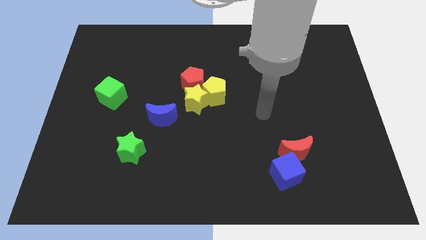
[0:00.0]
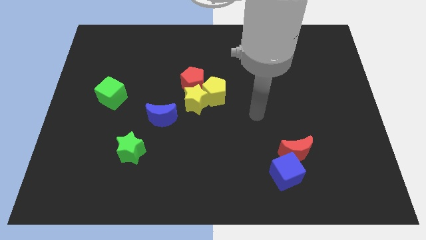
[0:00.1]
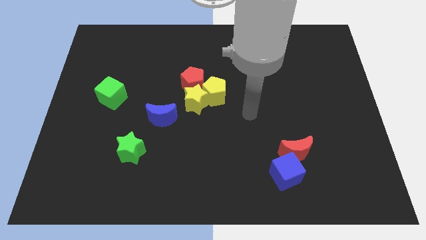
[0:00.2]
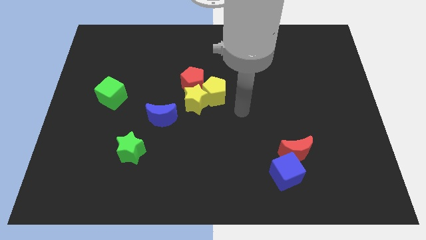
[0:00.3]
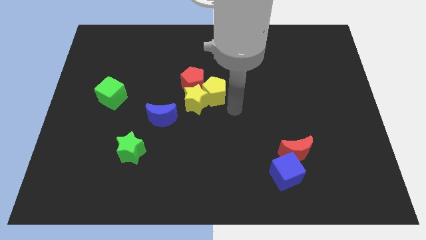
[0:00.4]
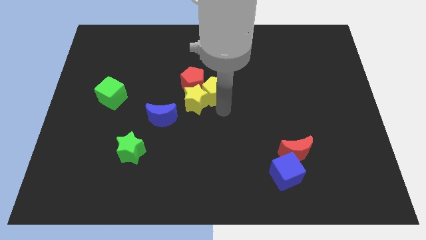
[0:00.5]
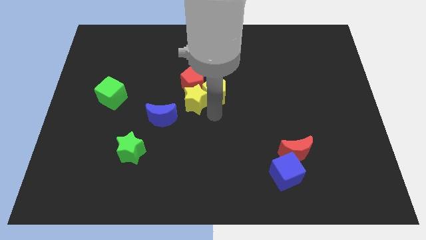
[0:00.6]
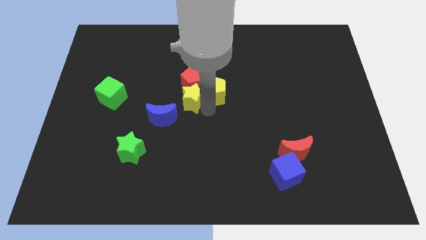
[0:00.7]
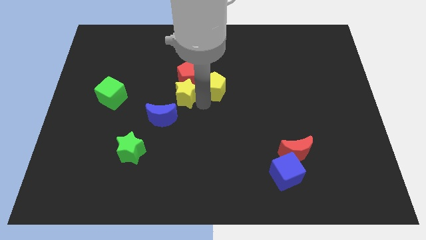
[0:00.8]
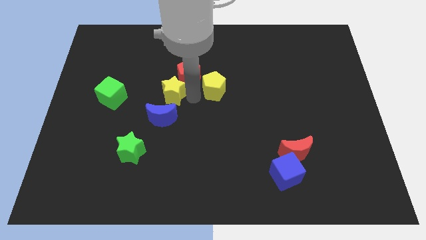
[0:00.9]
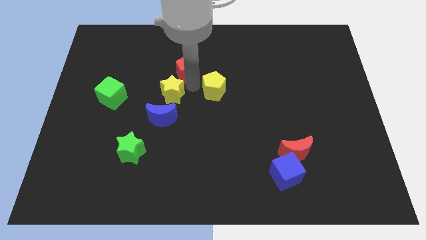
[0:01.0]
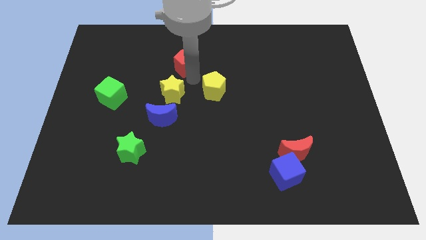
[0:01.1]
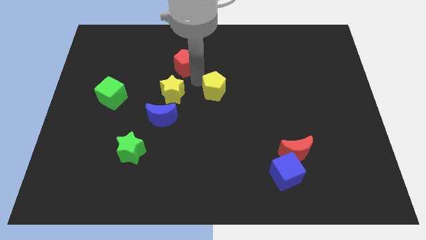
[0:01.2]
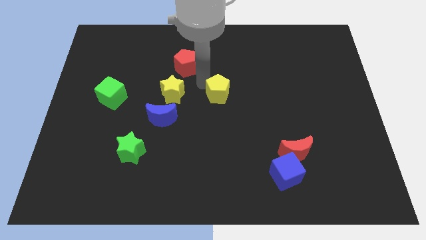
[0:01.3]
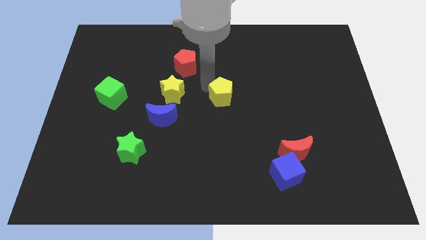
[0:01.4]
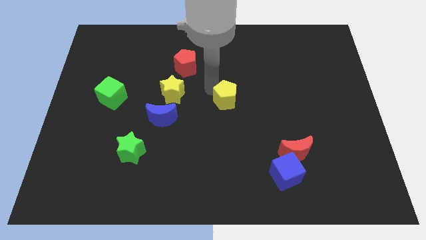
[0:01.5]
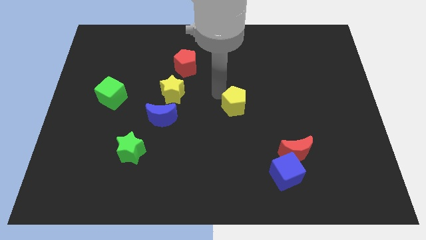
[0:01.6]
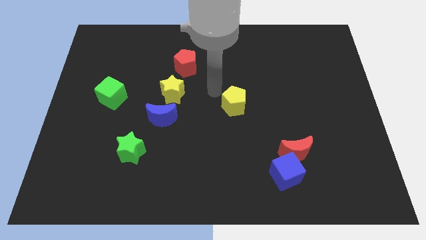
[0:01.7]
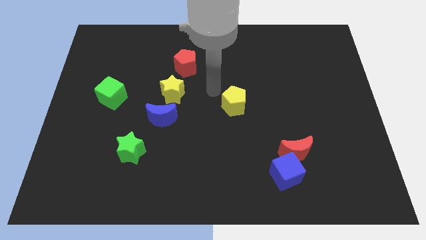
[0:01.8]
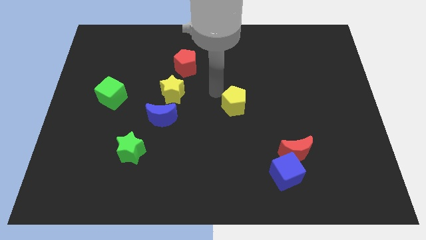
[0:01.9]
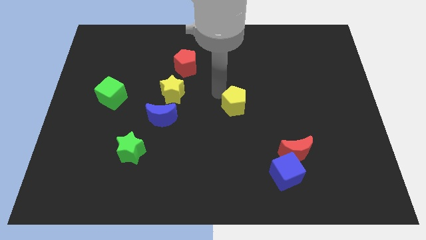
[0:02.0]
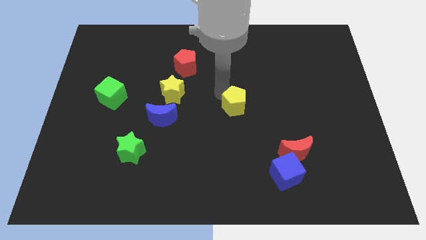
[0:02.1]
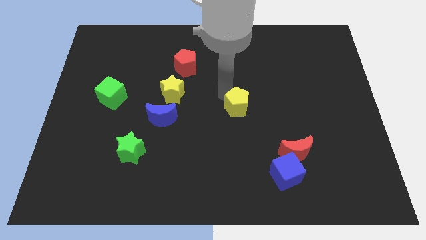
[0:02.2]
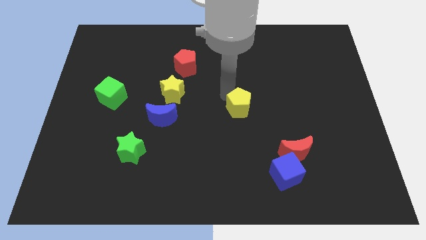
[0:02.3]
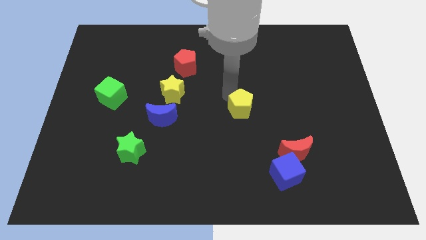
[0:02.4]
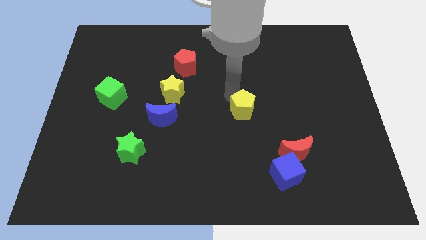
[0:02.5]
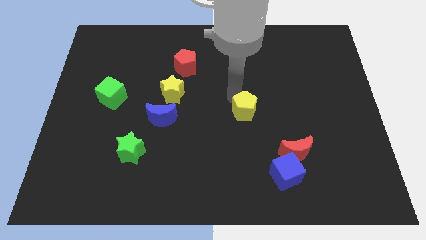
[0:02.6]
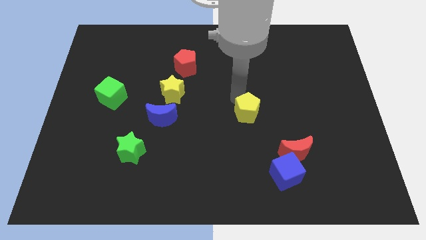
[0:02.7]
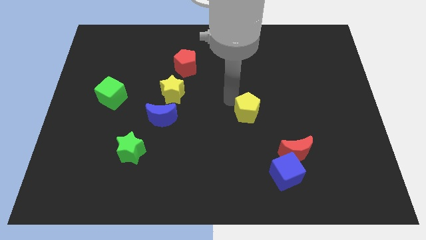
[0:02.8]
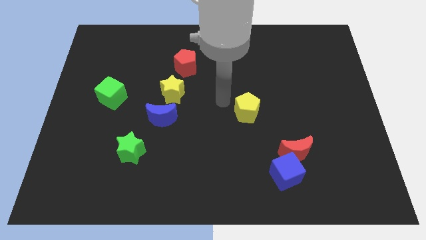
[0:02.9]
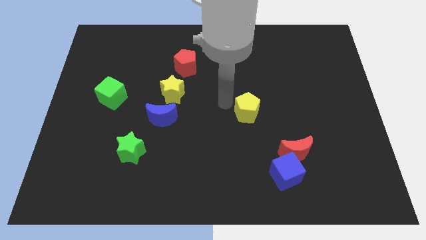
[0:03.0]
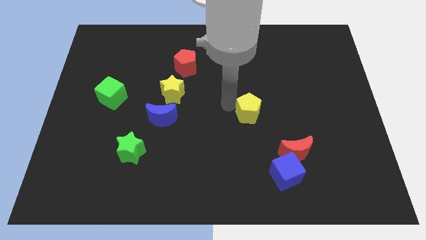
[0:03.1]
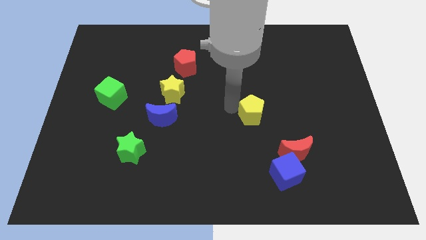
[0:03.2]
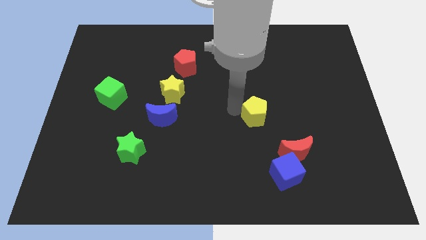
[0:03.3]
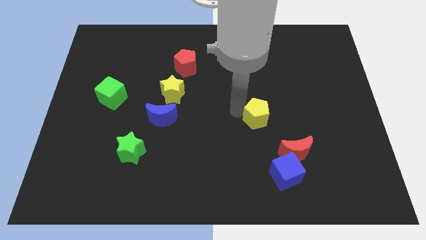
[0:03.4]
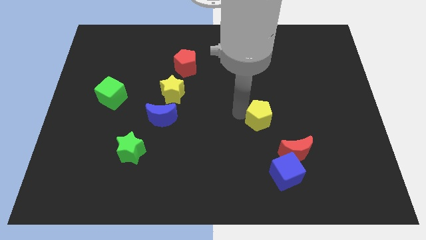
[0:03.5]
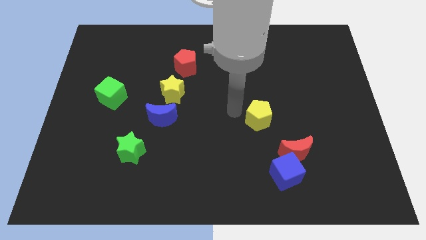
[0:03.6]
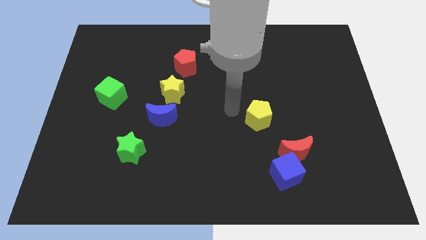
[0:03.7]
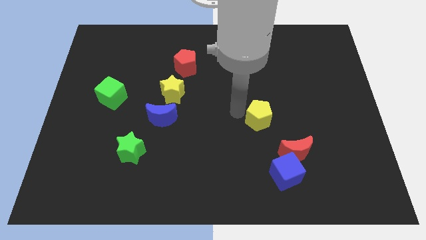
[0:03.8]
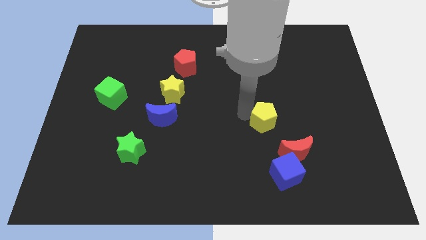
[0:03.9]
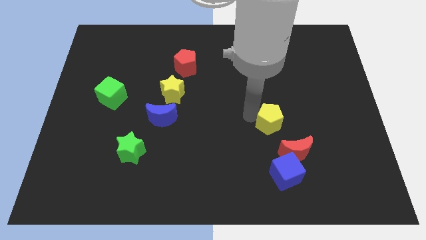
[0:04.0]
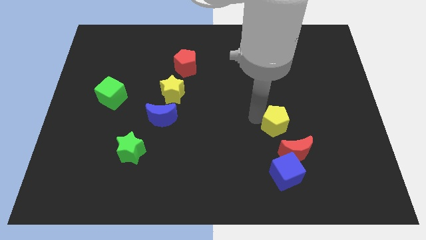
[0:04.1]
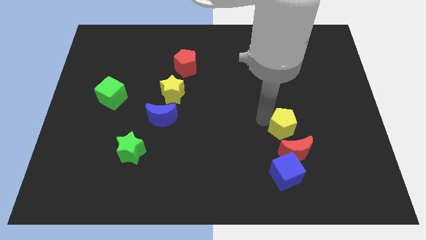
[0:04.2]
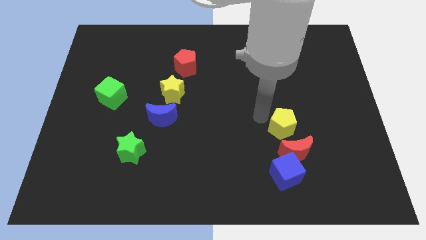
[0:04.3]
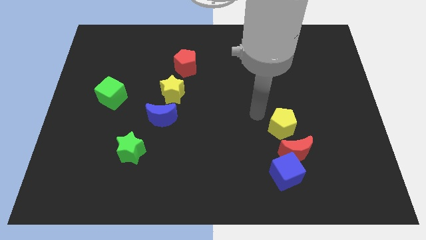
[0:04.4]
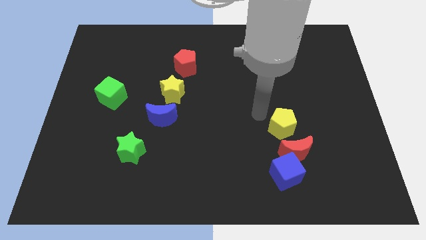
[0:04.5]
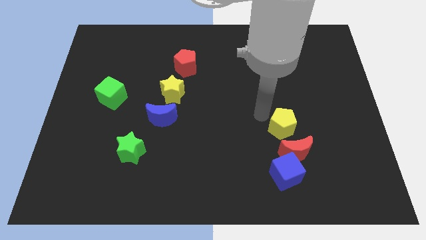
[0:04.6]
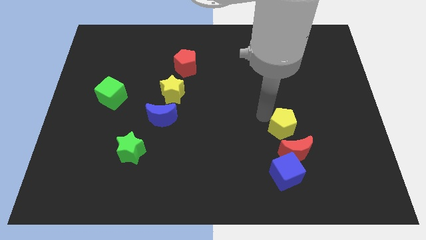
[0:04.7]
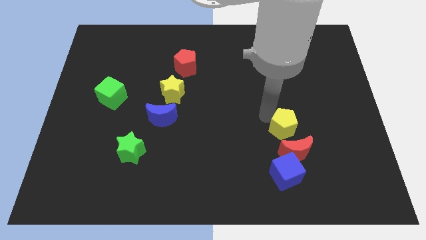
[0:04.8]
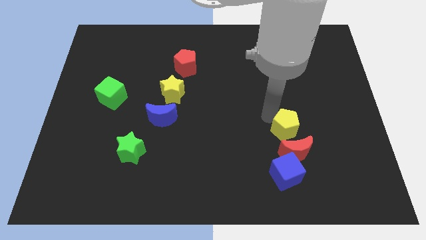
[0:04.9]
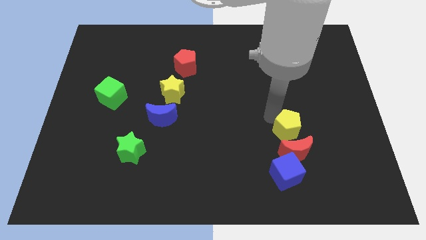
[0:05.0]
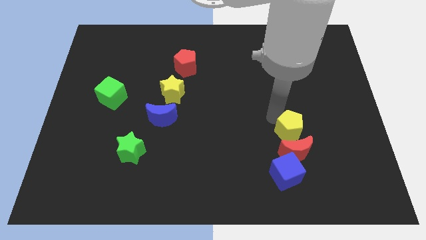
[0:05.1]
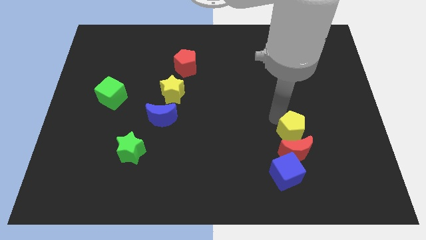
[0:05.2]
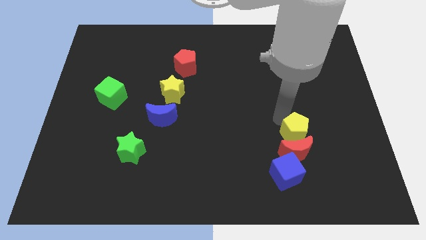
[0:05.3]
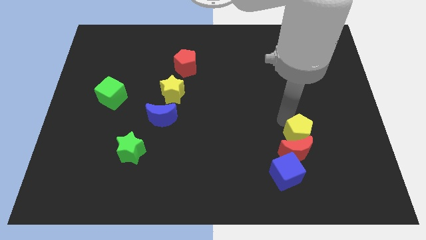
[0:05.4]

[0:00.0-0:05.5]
push the yellow pentagon down and right diagonally

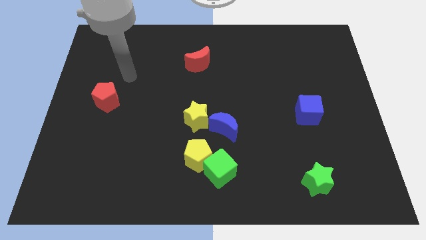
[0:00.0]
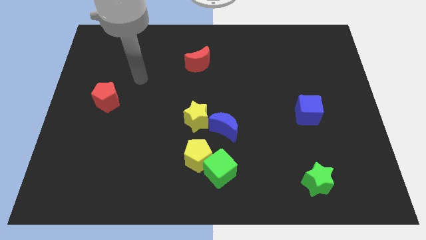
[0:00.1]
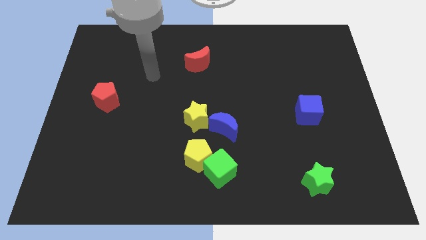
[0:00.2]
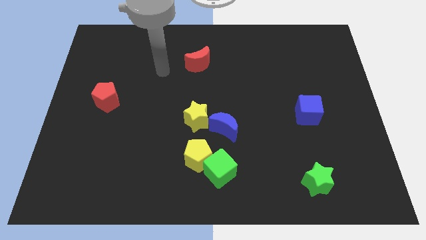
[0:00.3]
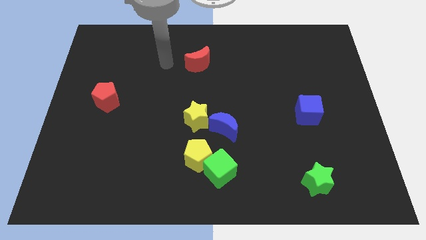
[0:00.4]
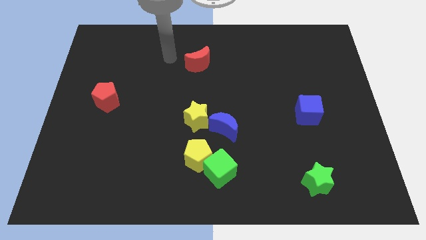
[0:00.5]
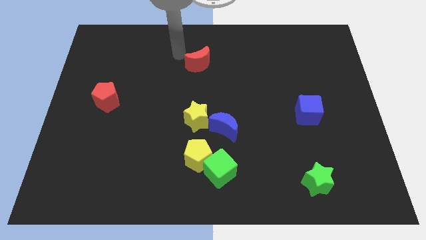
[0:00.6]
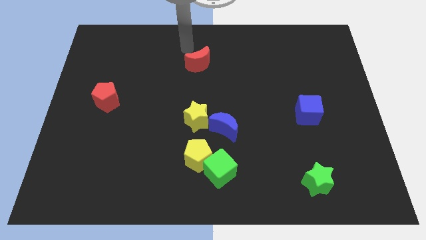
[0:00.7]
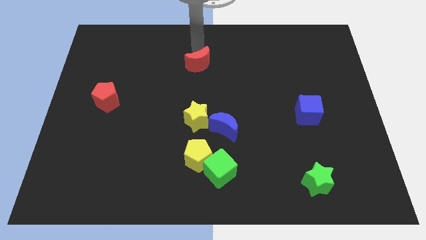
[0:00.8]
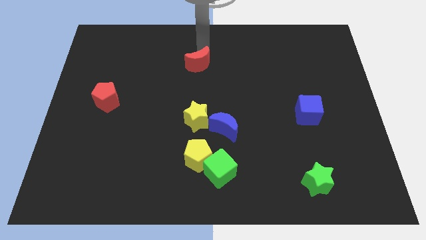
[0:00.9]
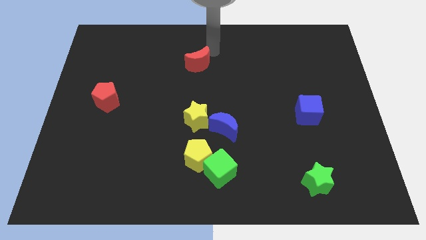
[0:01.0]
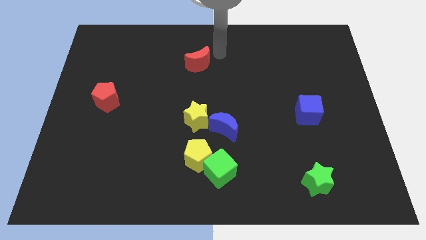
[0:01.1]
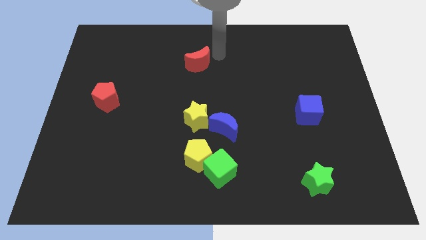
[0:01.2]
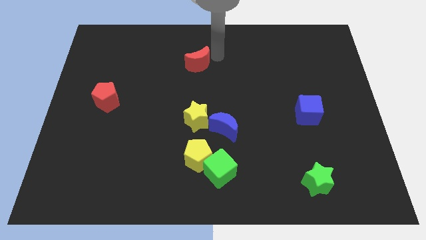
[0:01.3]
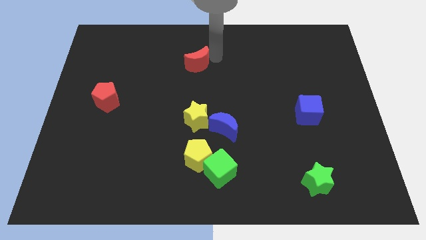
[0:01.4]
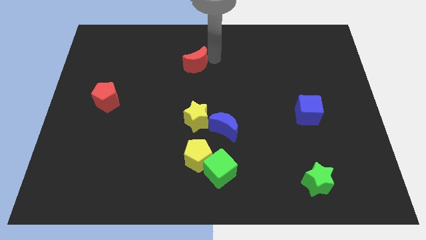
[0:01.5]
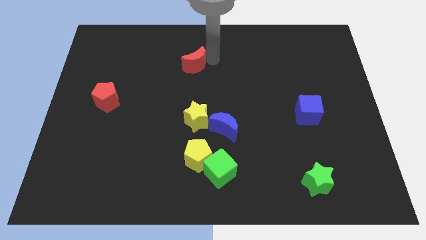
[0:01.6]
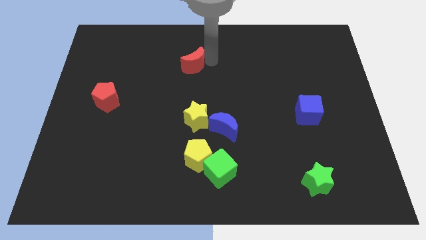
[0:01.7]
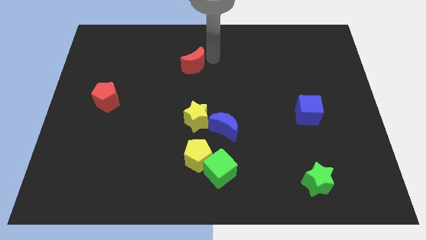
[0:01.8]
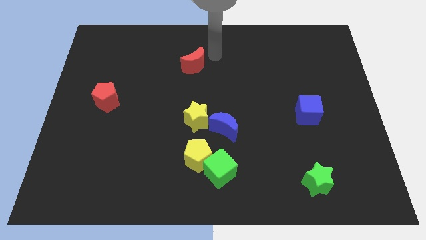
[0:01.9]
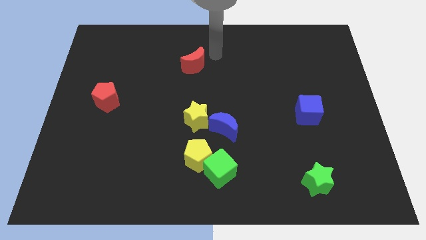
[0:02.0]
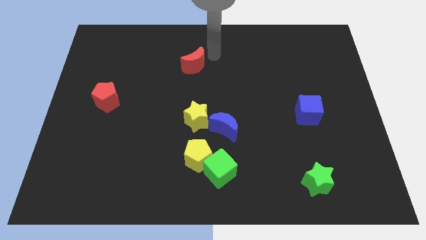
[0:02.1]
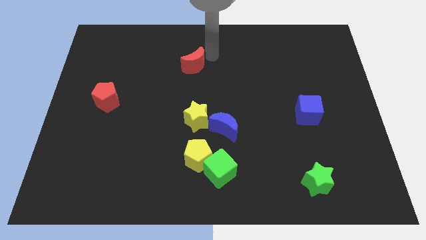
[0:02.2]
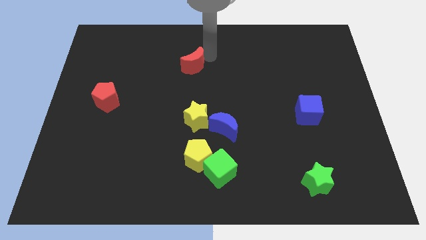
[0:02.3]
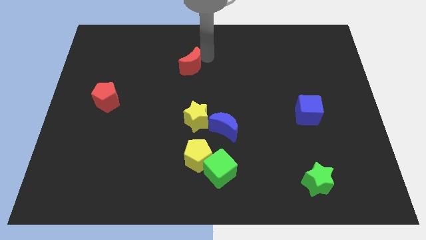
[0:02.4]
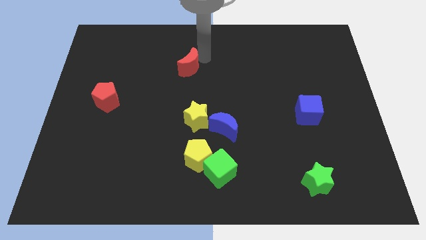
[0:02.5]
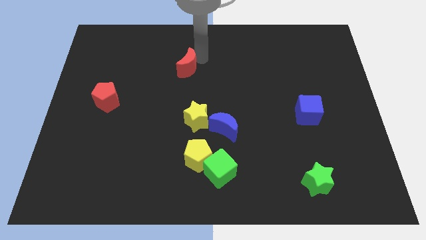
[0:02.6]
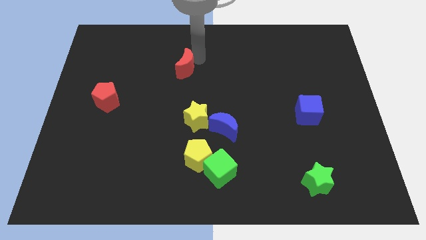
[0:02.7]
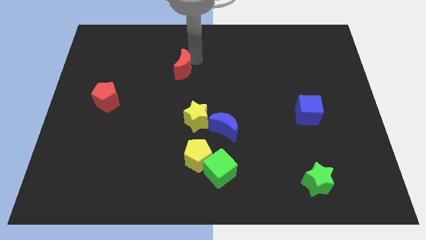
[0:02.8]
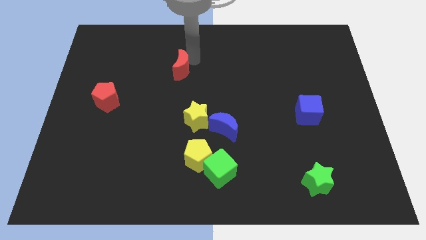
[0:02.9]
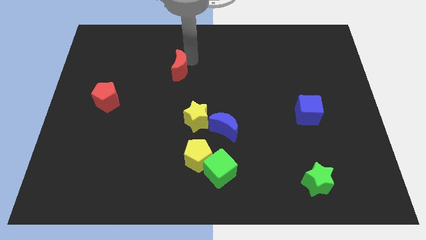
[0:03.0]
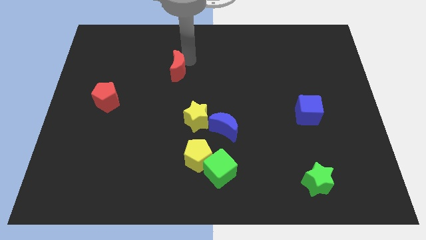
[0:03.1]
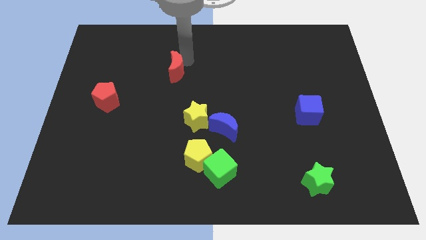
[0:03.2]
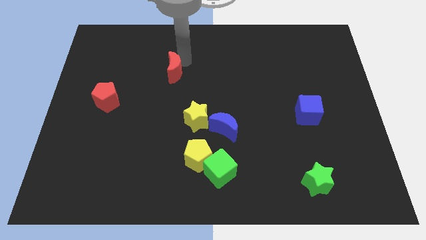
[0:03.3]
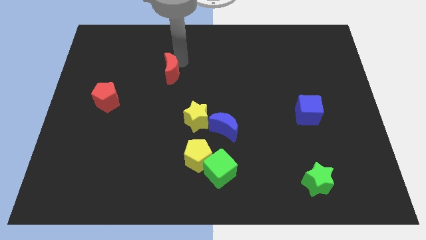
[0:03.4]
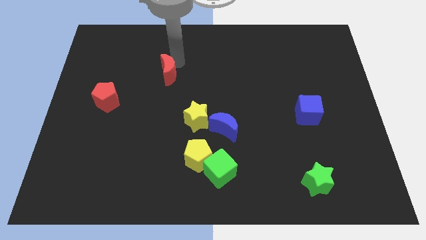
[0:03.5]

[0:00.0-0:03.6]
slide the red moon somewhat down and left diagonally
